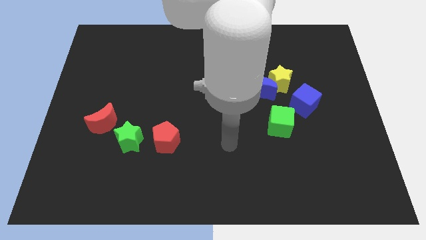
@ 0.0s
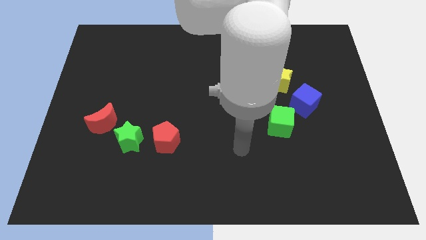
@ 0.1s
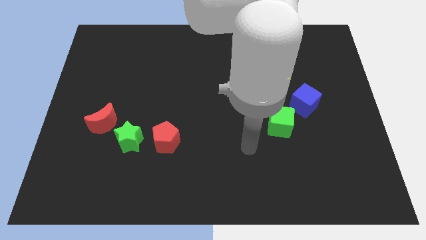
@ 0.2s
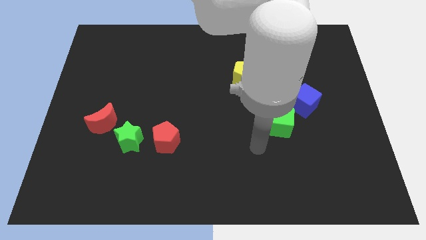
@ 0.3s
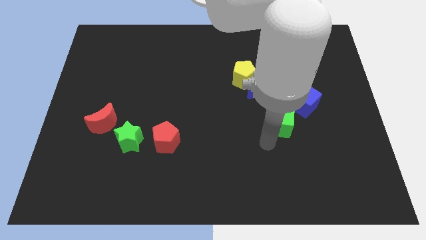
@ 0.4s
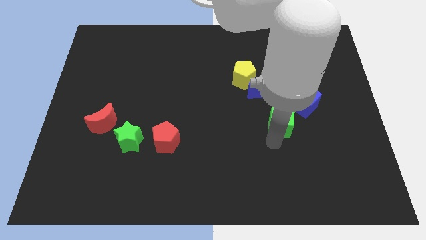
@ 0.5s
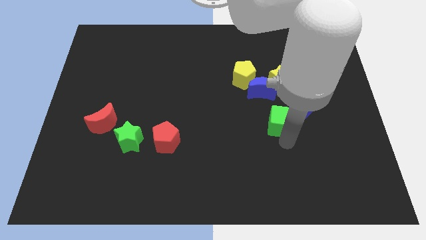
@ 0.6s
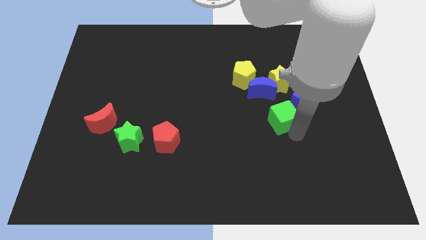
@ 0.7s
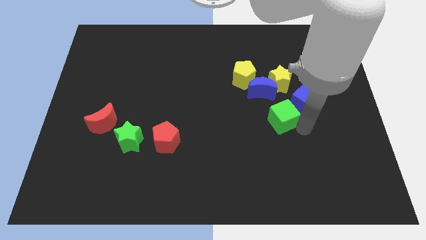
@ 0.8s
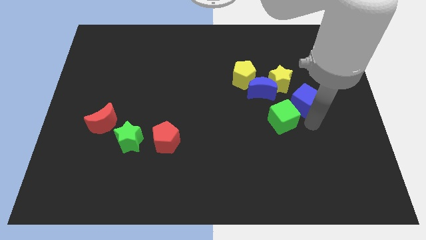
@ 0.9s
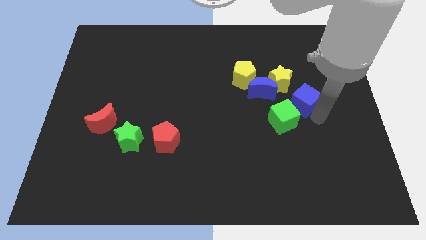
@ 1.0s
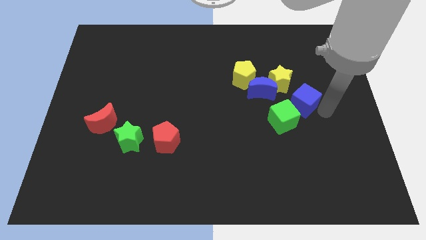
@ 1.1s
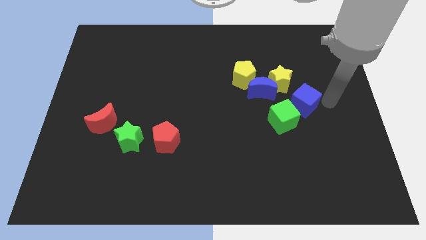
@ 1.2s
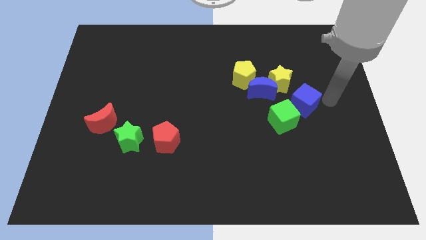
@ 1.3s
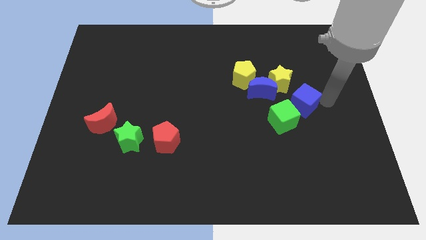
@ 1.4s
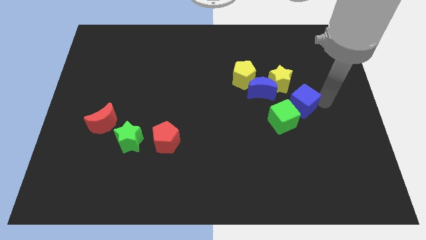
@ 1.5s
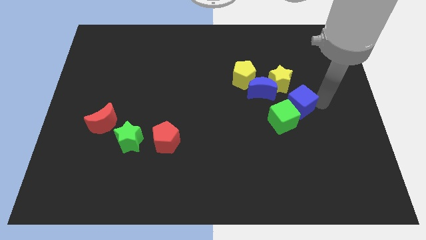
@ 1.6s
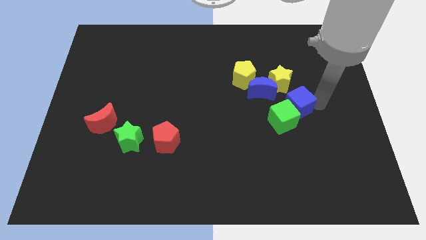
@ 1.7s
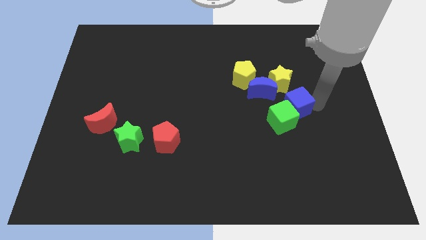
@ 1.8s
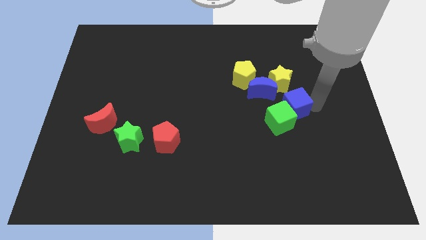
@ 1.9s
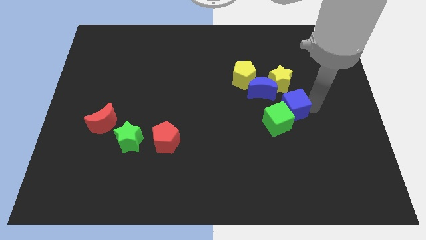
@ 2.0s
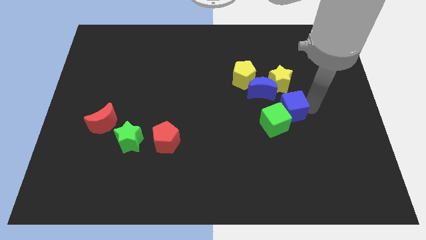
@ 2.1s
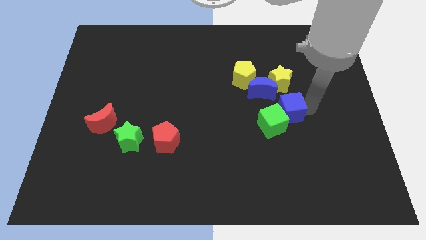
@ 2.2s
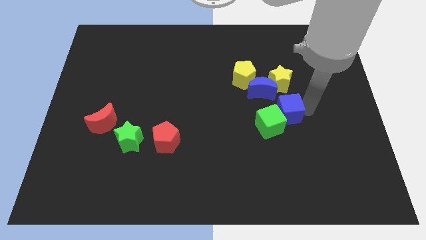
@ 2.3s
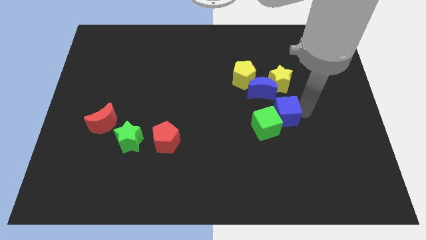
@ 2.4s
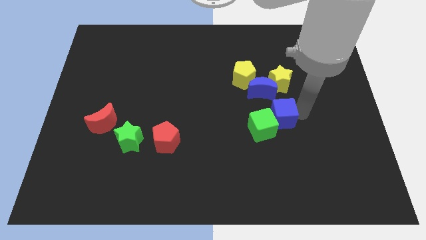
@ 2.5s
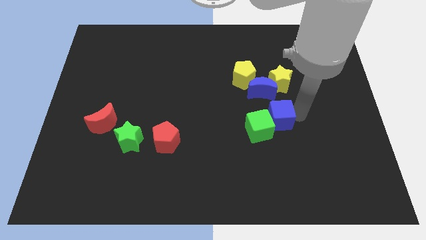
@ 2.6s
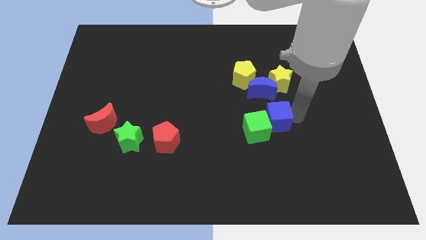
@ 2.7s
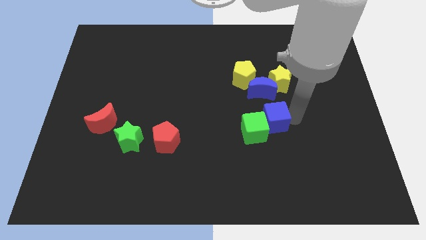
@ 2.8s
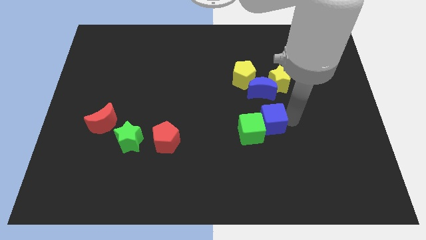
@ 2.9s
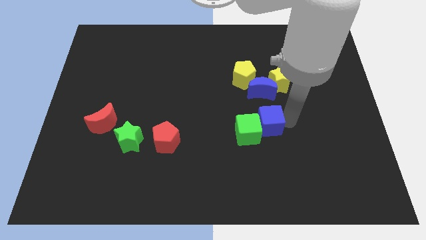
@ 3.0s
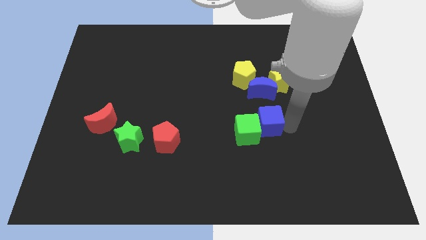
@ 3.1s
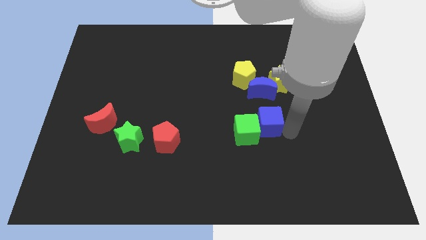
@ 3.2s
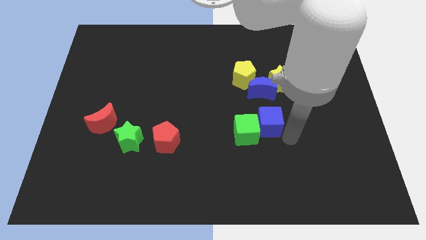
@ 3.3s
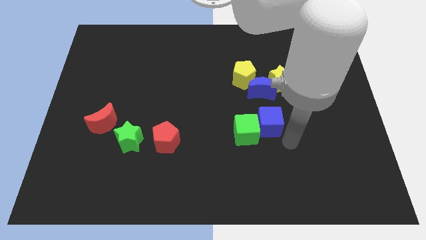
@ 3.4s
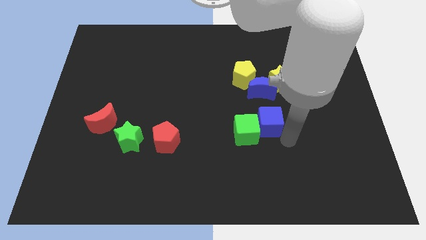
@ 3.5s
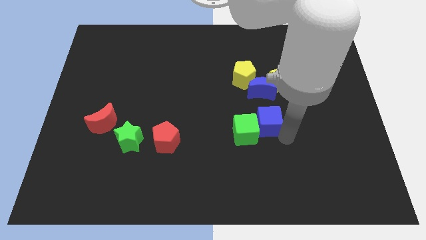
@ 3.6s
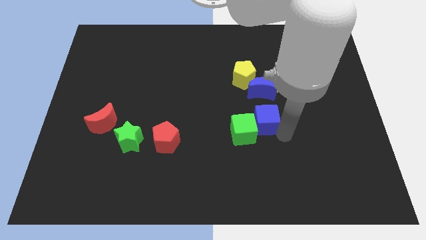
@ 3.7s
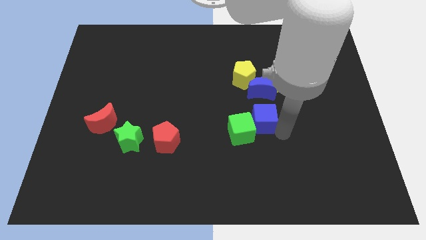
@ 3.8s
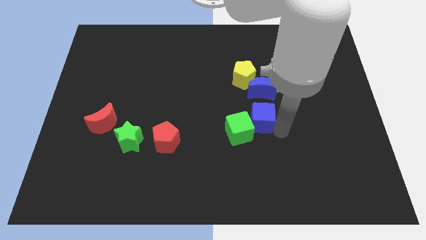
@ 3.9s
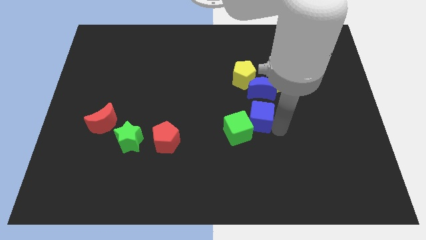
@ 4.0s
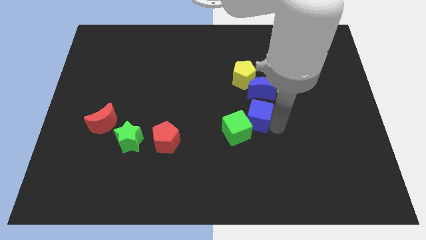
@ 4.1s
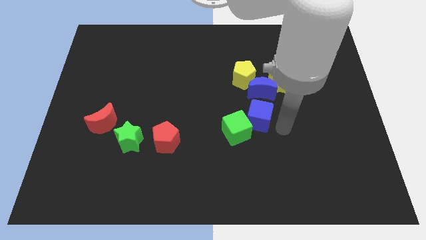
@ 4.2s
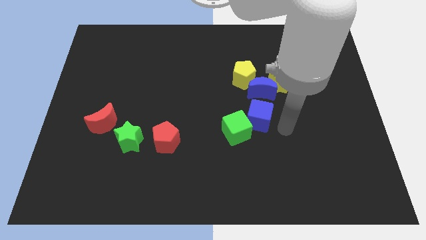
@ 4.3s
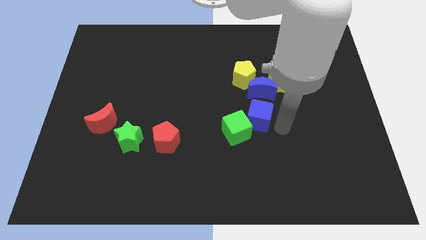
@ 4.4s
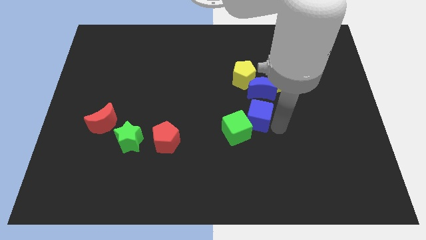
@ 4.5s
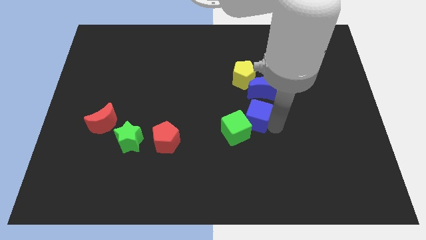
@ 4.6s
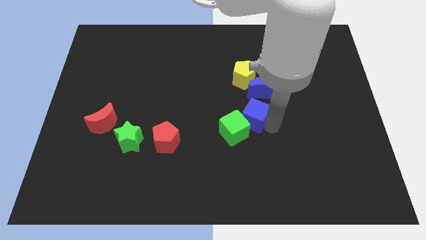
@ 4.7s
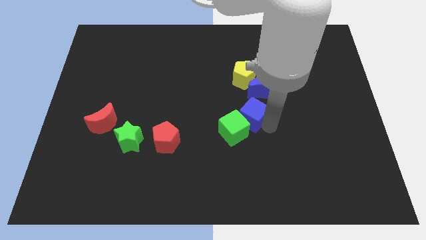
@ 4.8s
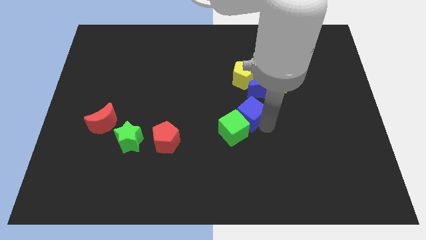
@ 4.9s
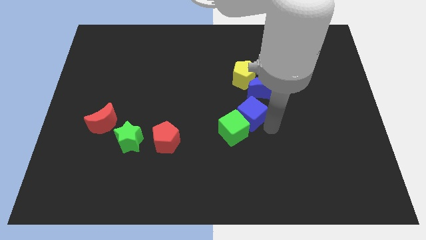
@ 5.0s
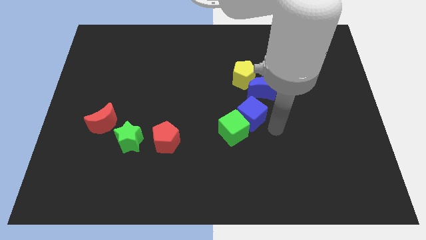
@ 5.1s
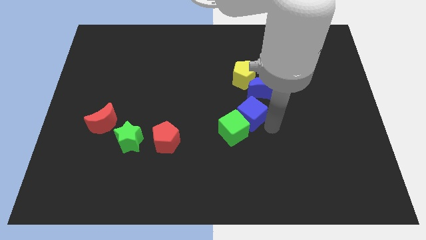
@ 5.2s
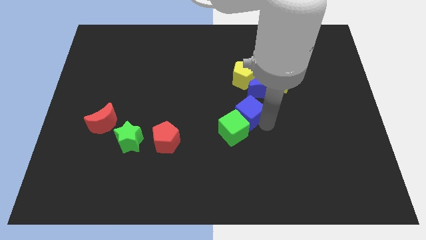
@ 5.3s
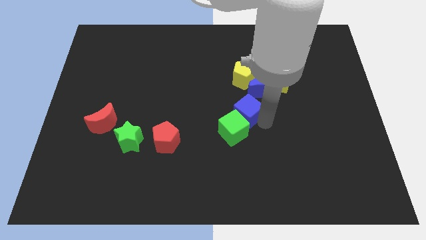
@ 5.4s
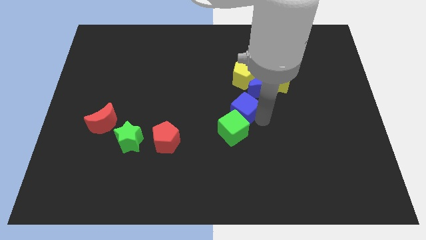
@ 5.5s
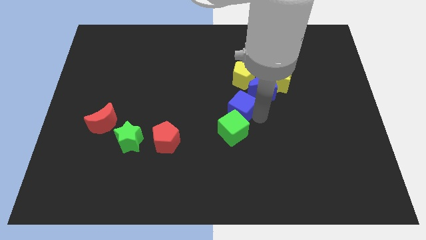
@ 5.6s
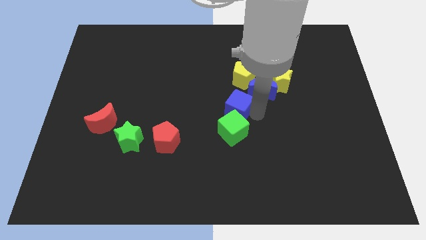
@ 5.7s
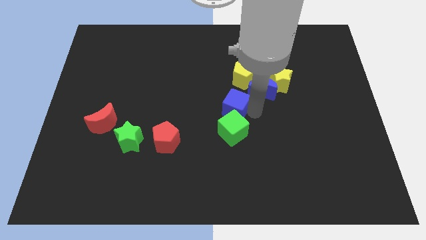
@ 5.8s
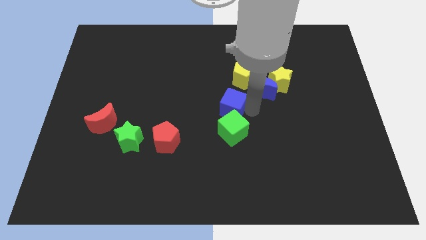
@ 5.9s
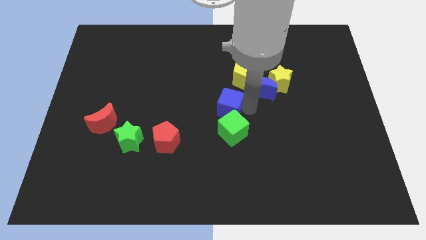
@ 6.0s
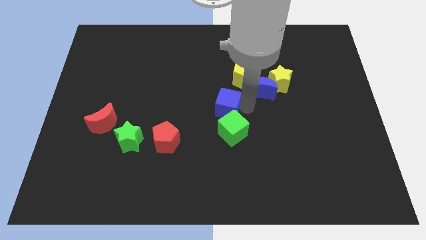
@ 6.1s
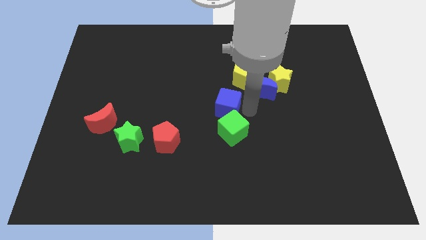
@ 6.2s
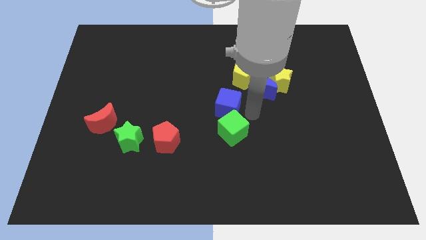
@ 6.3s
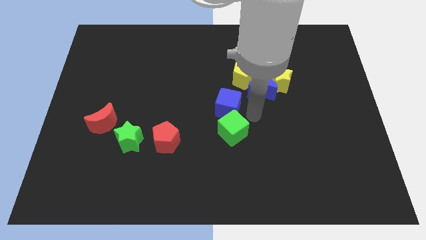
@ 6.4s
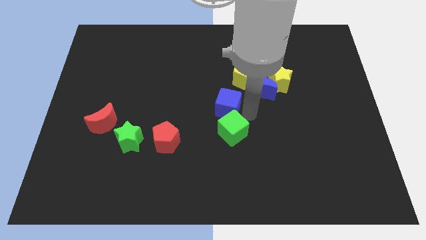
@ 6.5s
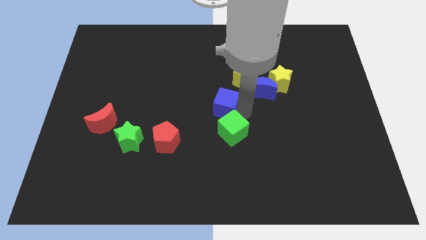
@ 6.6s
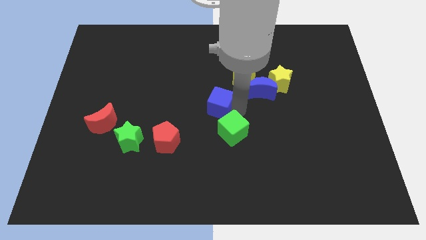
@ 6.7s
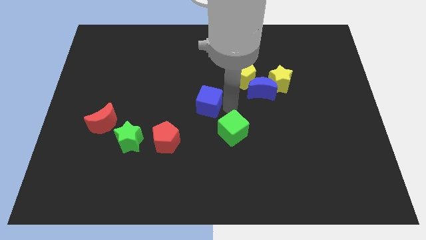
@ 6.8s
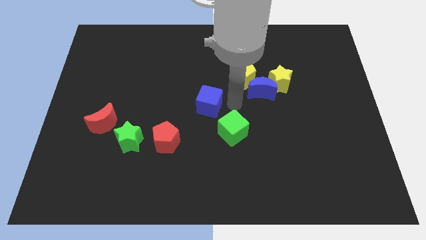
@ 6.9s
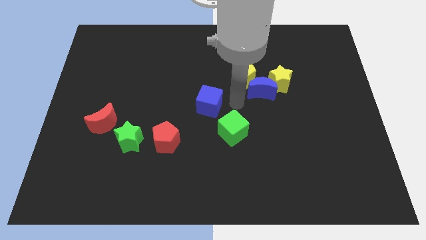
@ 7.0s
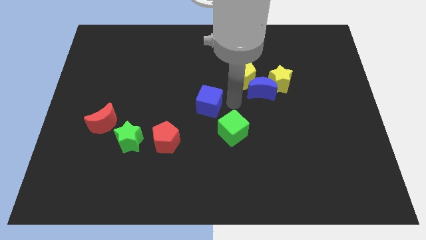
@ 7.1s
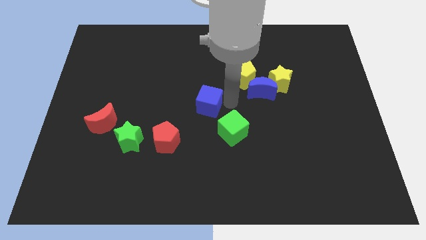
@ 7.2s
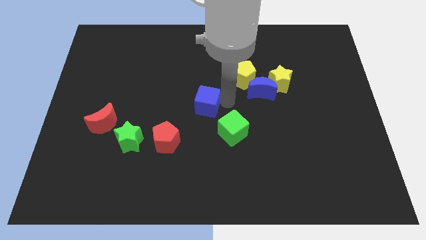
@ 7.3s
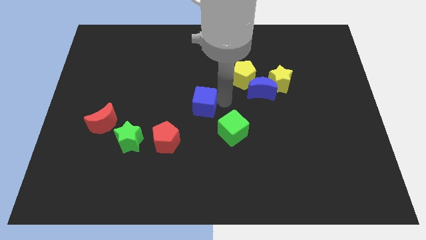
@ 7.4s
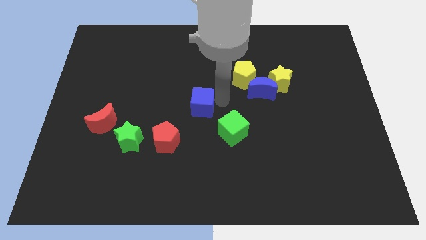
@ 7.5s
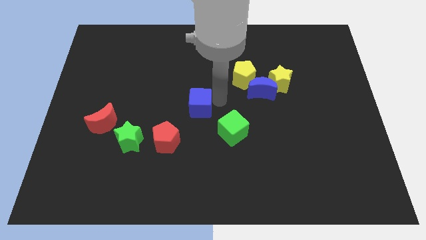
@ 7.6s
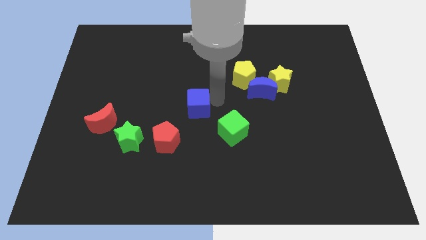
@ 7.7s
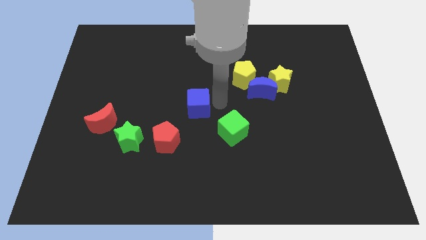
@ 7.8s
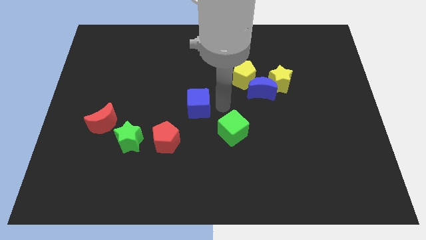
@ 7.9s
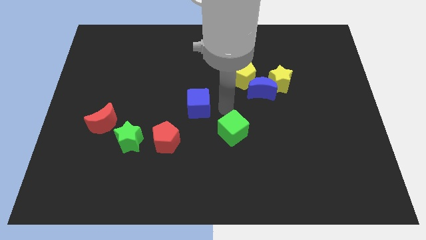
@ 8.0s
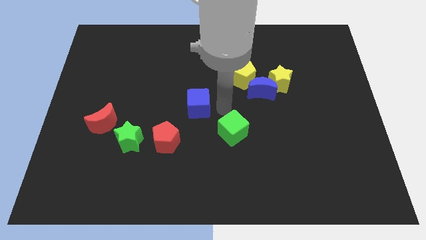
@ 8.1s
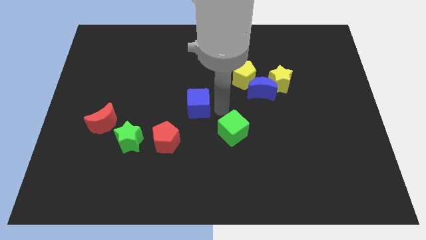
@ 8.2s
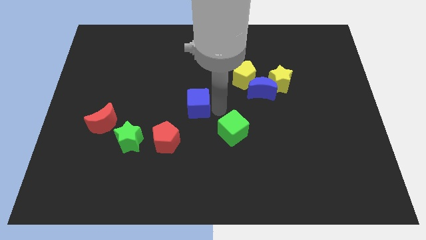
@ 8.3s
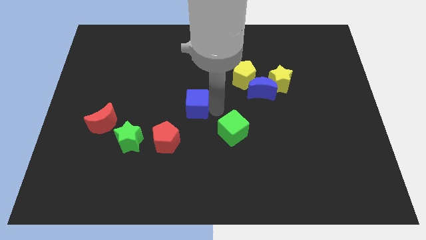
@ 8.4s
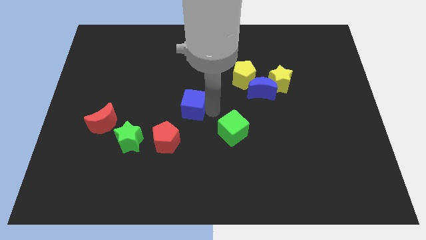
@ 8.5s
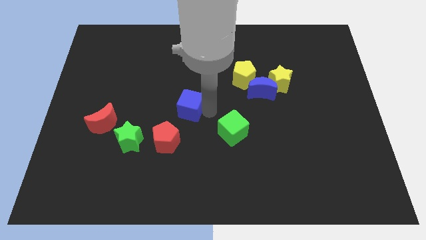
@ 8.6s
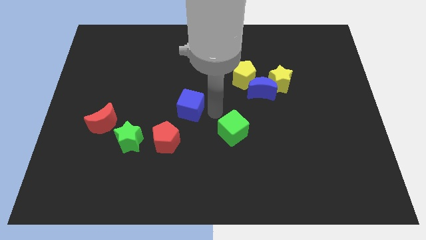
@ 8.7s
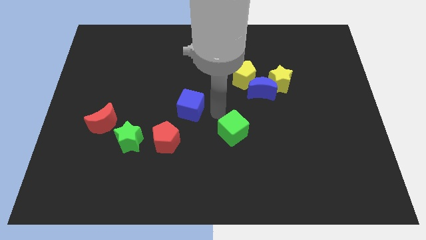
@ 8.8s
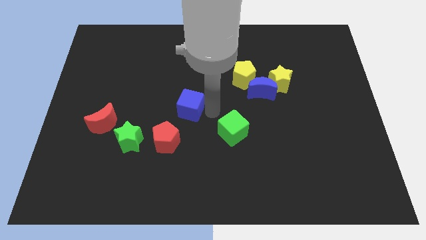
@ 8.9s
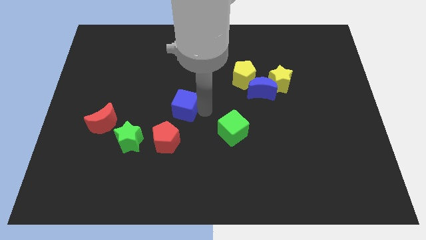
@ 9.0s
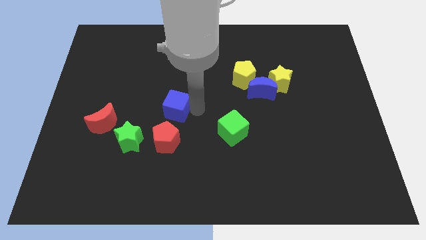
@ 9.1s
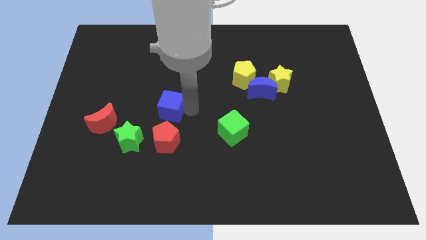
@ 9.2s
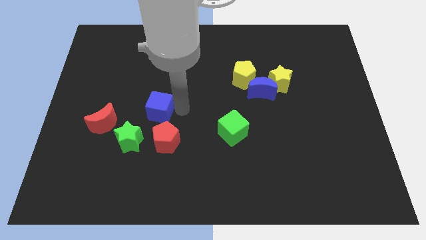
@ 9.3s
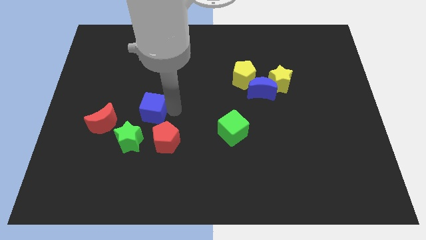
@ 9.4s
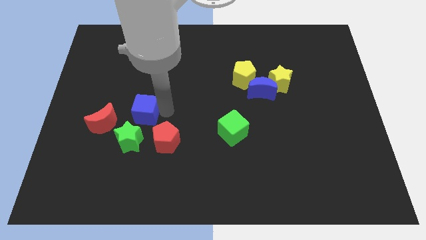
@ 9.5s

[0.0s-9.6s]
put the blue cube to the top right of the red moon
